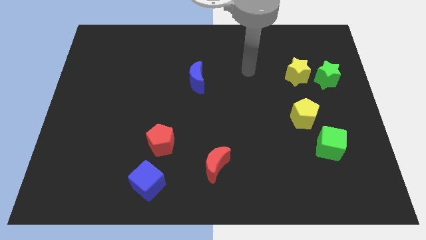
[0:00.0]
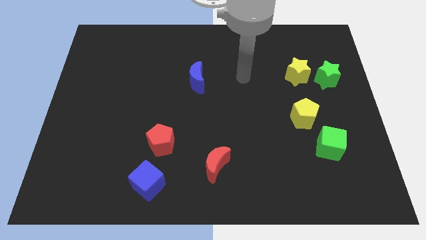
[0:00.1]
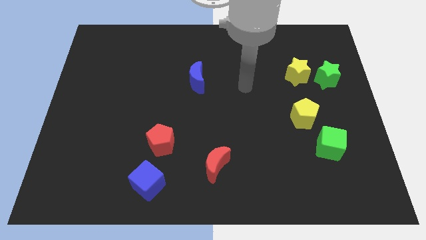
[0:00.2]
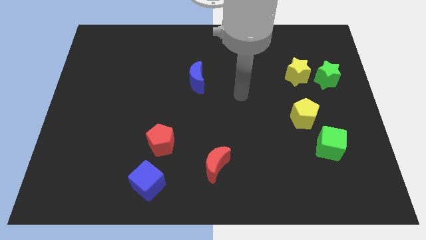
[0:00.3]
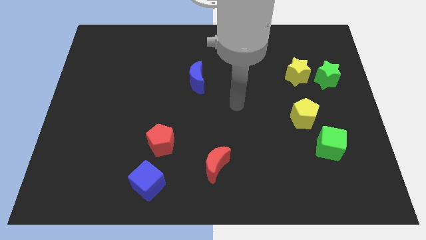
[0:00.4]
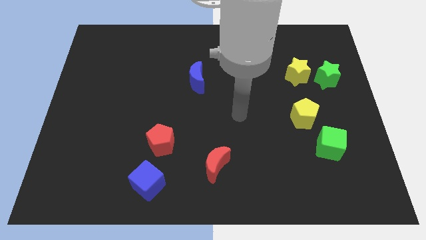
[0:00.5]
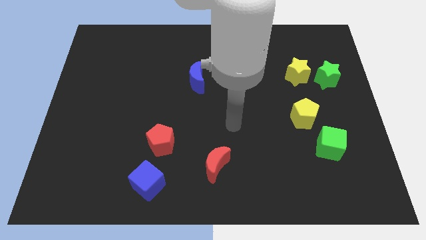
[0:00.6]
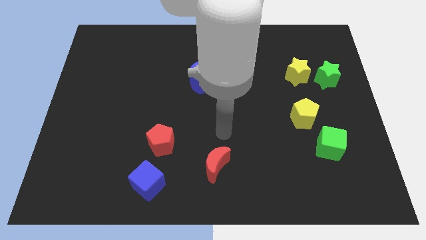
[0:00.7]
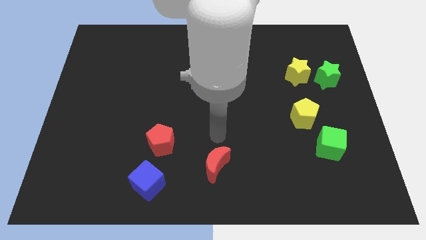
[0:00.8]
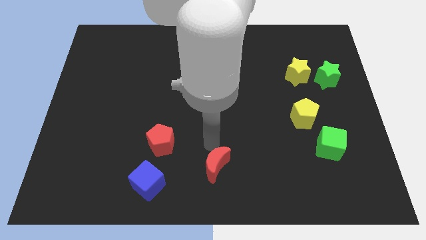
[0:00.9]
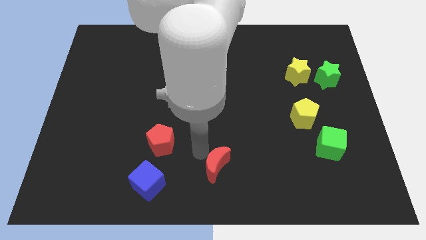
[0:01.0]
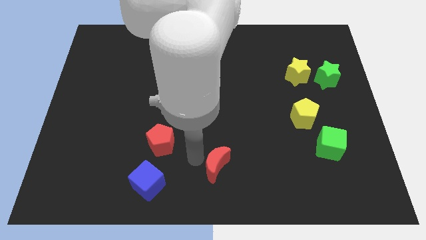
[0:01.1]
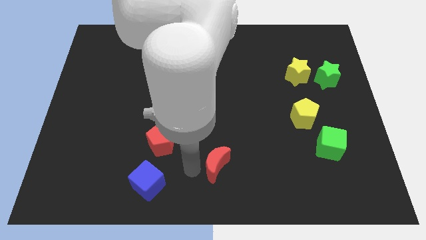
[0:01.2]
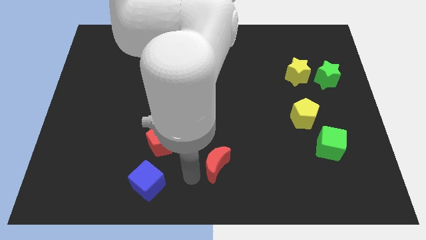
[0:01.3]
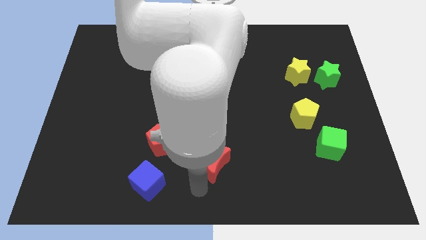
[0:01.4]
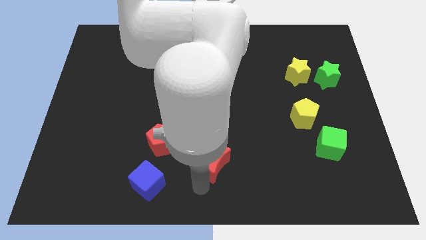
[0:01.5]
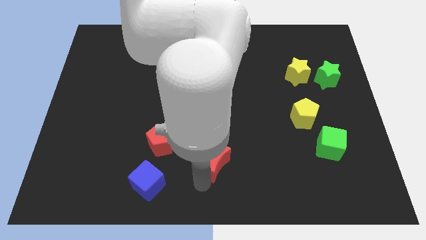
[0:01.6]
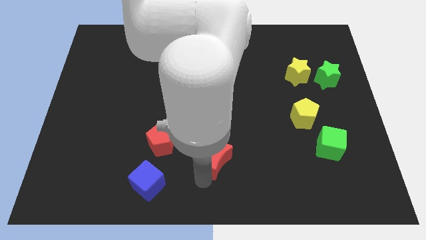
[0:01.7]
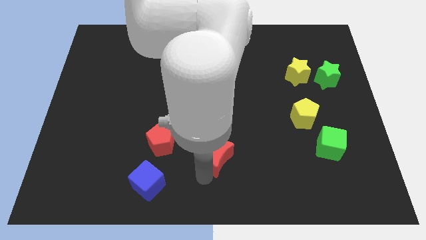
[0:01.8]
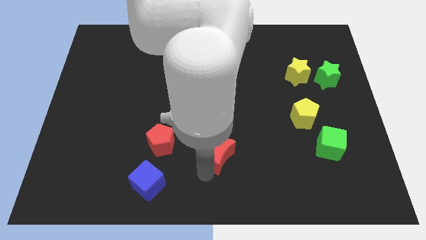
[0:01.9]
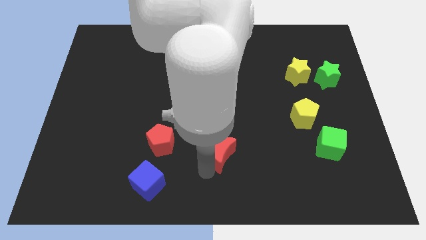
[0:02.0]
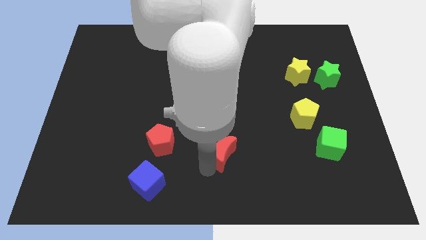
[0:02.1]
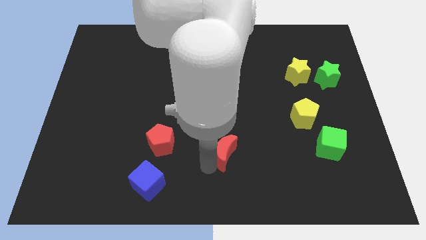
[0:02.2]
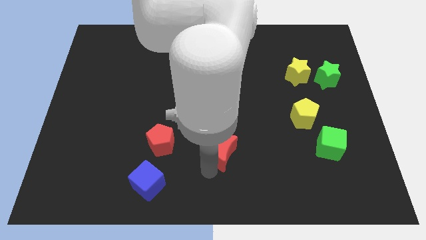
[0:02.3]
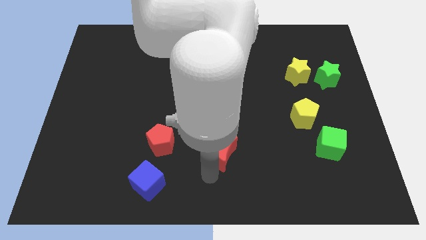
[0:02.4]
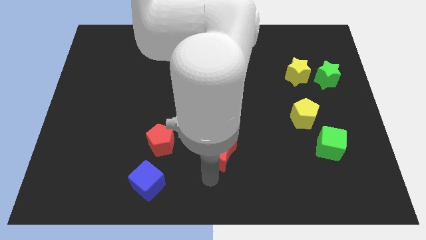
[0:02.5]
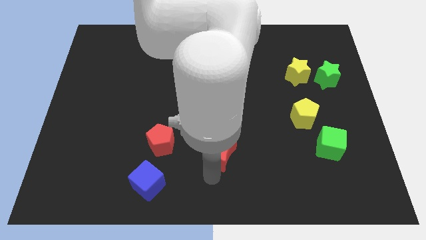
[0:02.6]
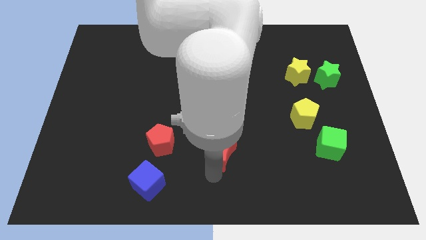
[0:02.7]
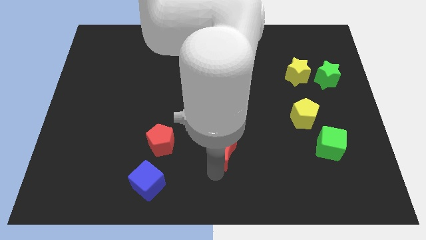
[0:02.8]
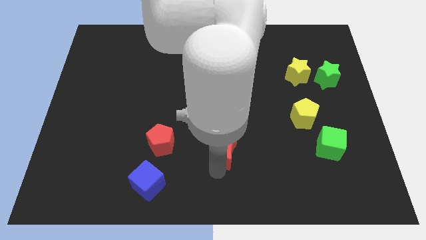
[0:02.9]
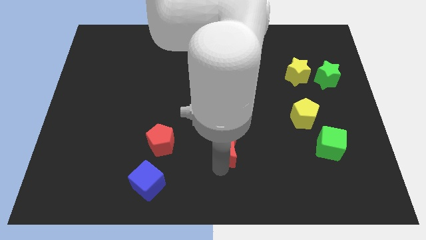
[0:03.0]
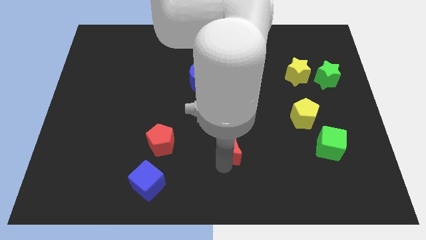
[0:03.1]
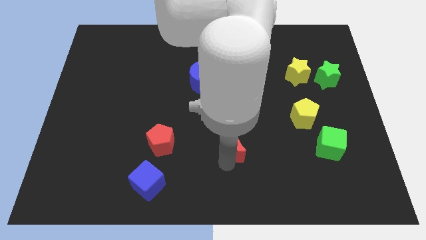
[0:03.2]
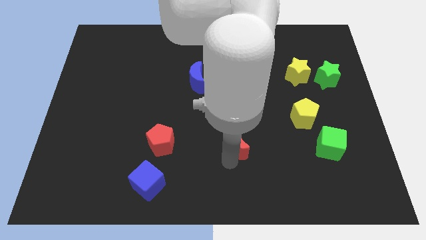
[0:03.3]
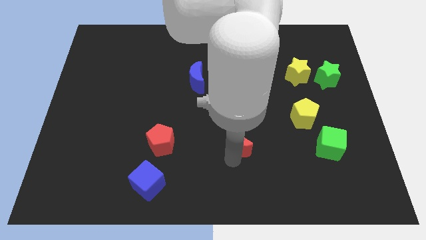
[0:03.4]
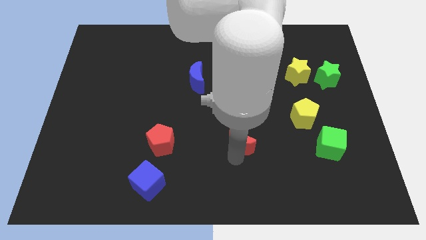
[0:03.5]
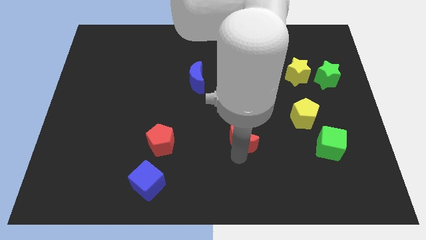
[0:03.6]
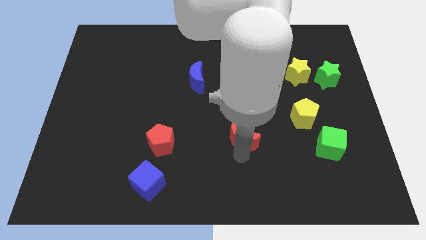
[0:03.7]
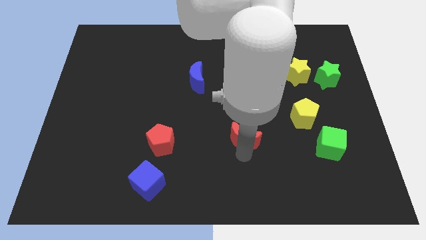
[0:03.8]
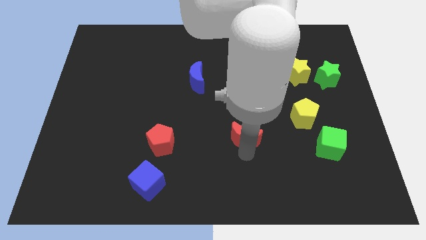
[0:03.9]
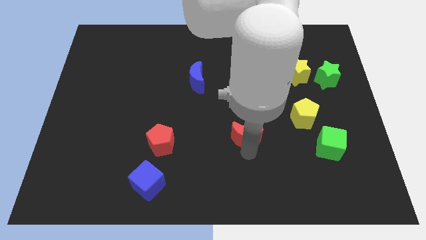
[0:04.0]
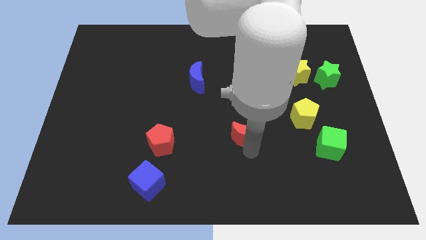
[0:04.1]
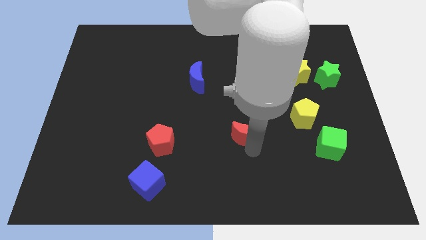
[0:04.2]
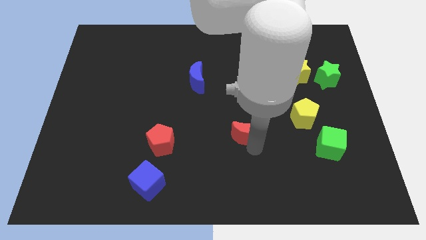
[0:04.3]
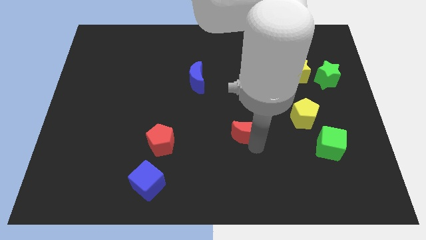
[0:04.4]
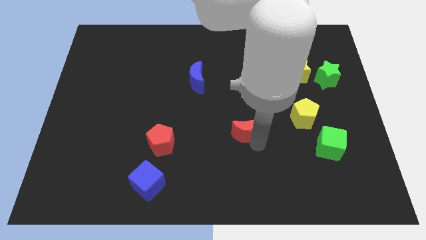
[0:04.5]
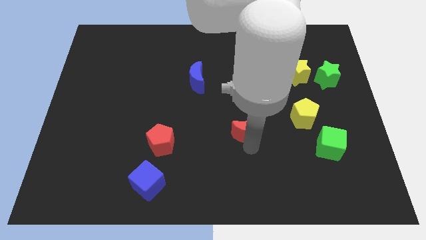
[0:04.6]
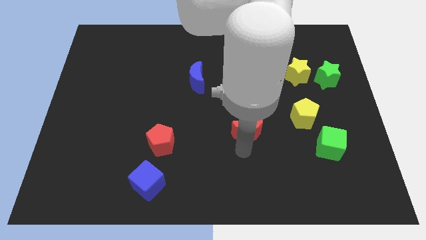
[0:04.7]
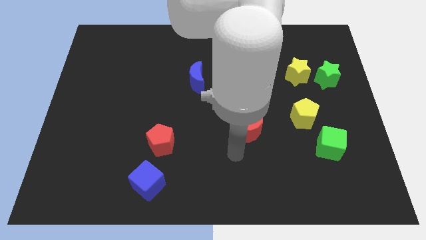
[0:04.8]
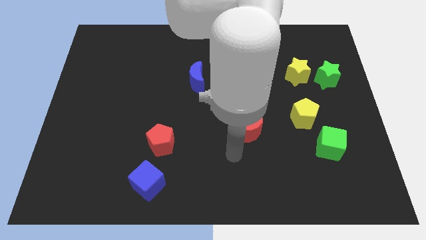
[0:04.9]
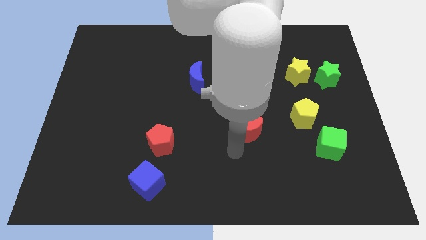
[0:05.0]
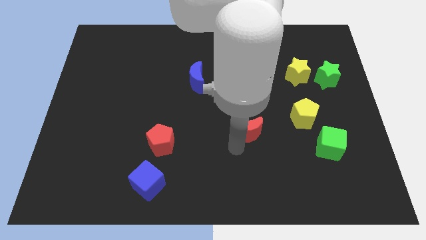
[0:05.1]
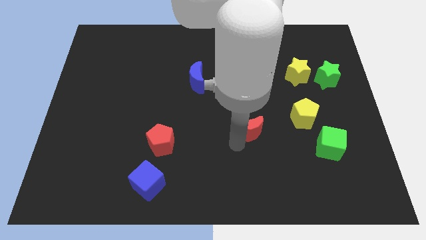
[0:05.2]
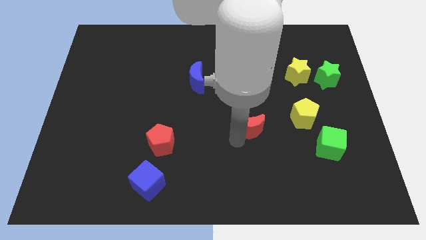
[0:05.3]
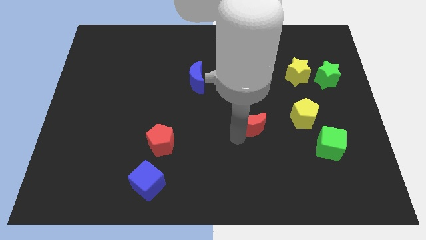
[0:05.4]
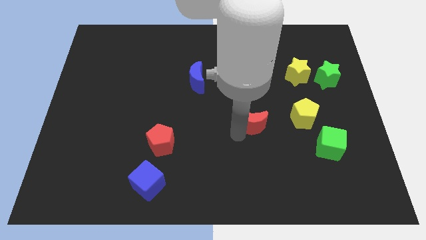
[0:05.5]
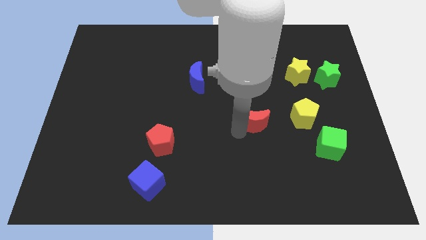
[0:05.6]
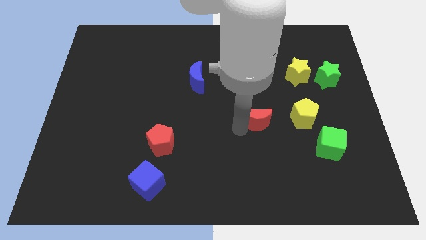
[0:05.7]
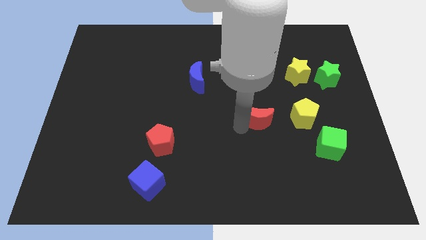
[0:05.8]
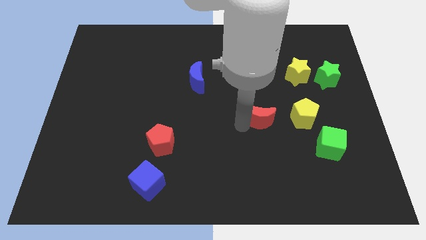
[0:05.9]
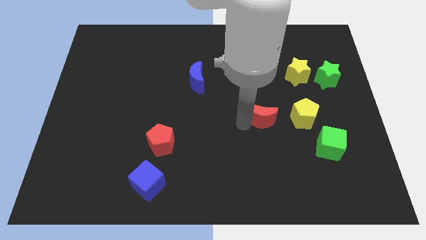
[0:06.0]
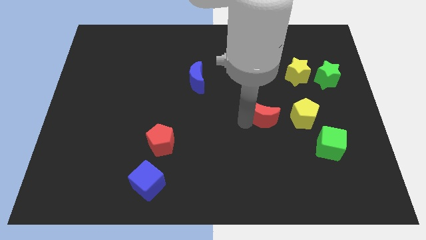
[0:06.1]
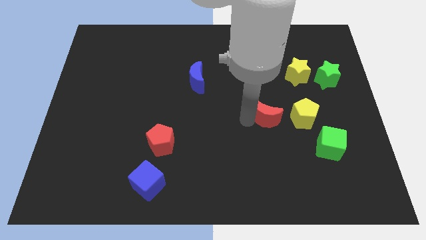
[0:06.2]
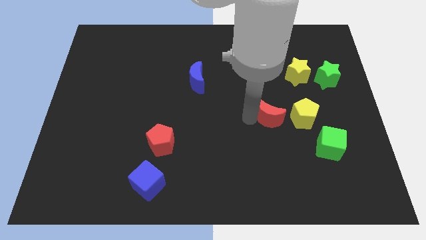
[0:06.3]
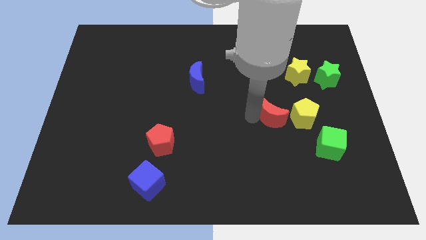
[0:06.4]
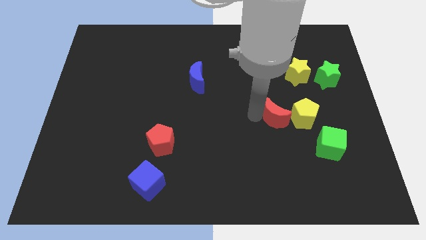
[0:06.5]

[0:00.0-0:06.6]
slide the red moon to the top left side of the yellow pentagon
